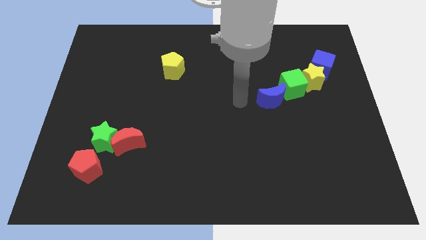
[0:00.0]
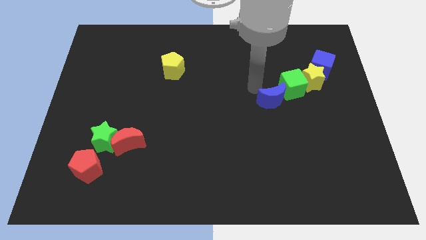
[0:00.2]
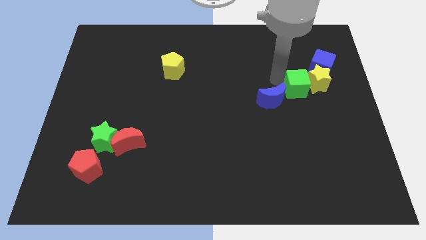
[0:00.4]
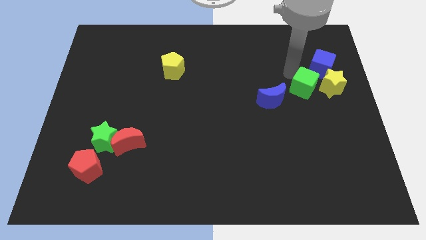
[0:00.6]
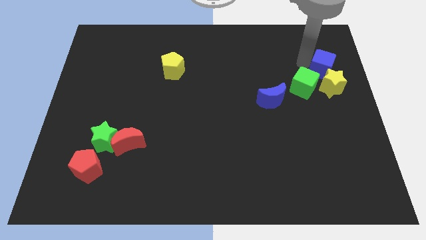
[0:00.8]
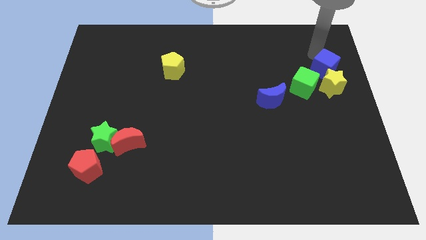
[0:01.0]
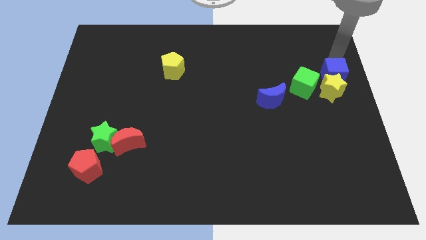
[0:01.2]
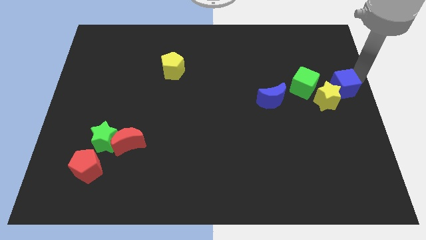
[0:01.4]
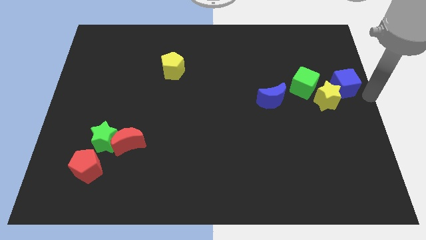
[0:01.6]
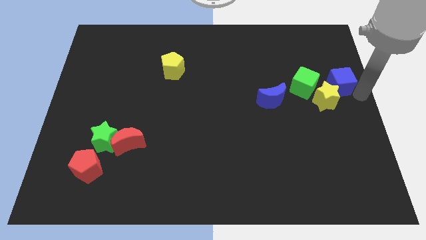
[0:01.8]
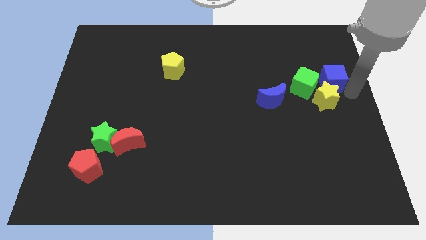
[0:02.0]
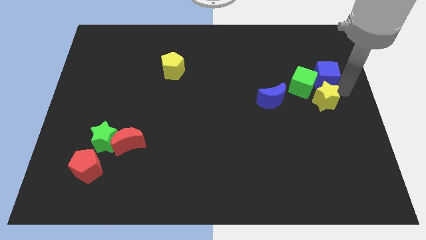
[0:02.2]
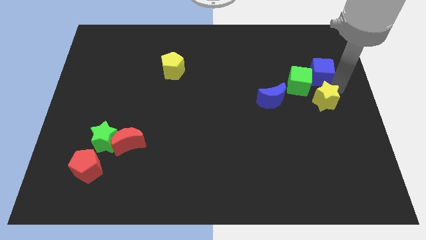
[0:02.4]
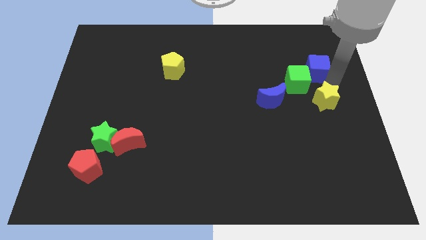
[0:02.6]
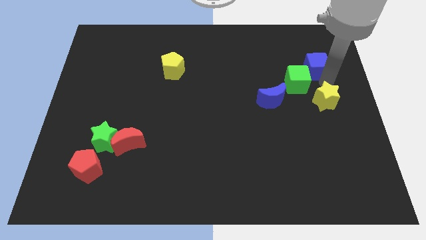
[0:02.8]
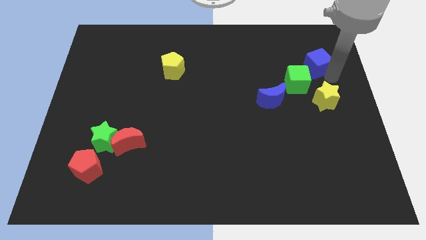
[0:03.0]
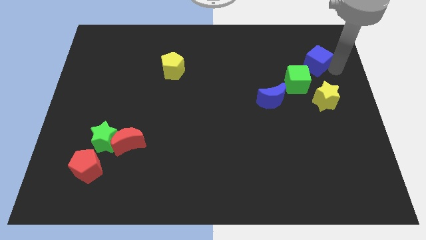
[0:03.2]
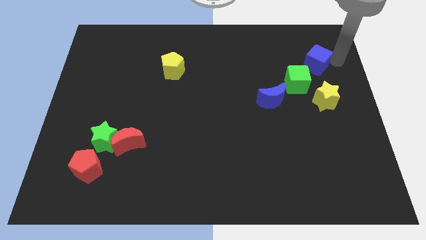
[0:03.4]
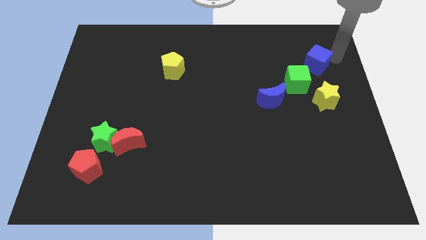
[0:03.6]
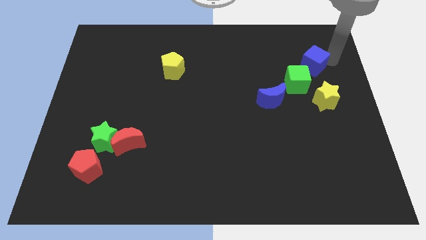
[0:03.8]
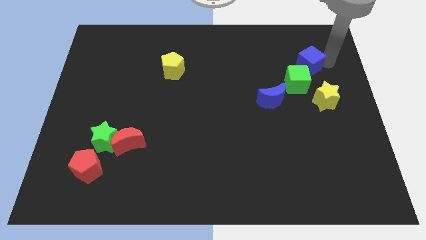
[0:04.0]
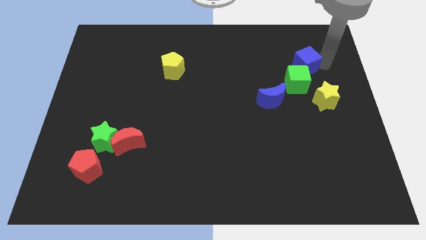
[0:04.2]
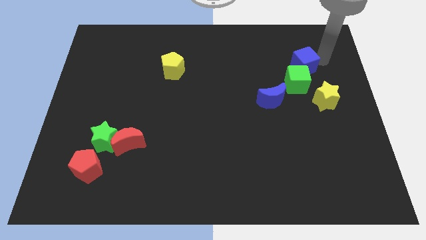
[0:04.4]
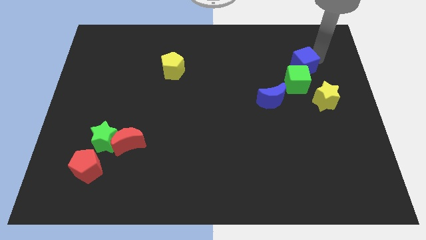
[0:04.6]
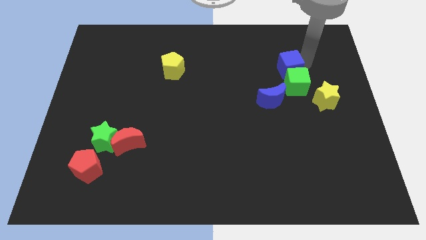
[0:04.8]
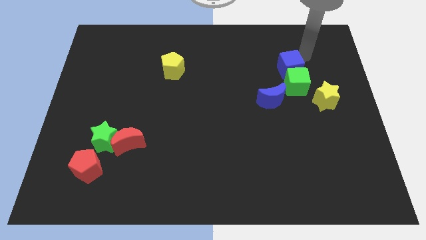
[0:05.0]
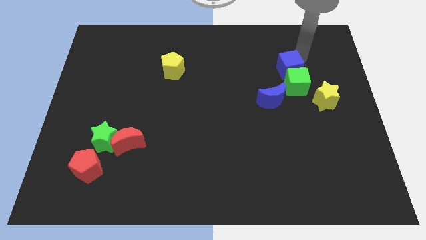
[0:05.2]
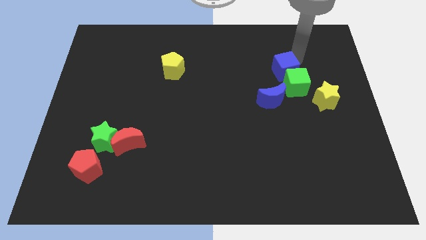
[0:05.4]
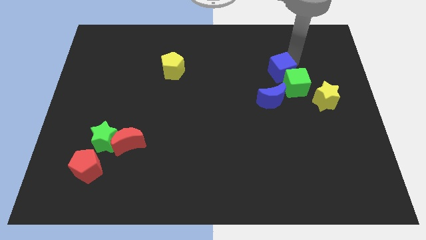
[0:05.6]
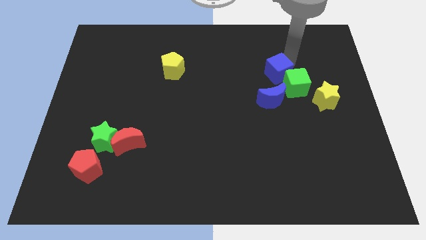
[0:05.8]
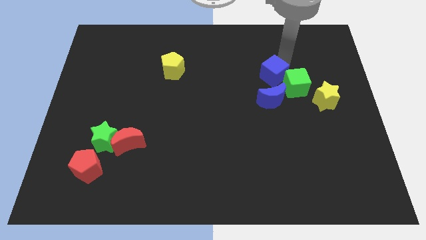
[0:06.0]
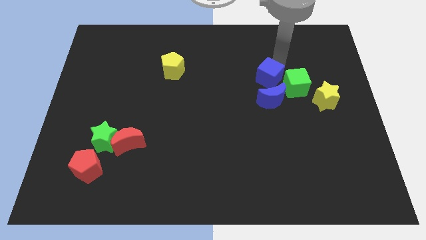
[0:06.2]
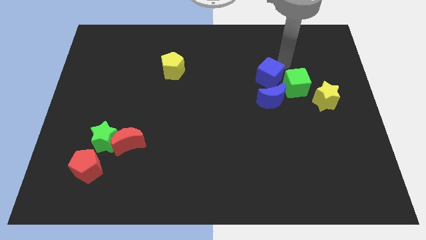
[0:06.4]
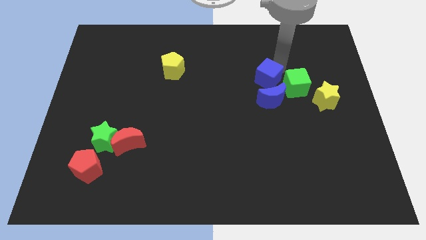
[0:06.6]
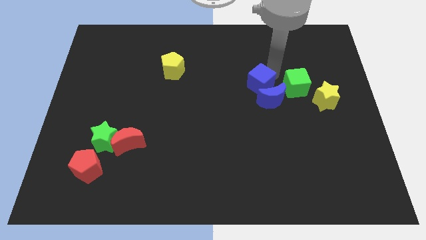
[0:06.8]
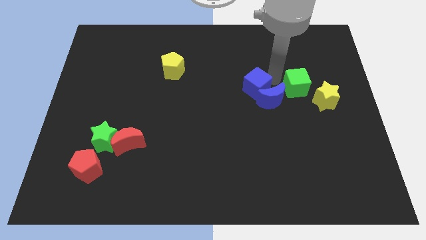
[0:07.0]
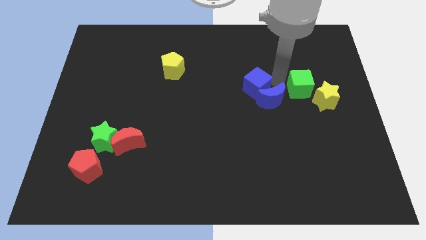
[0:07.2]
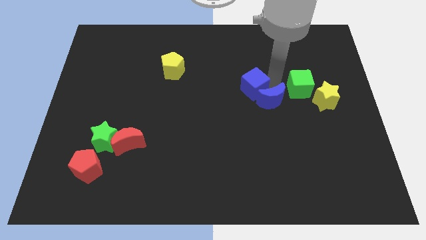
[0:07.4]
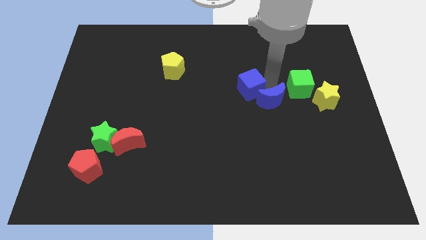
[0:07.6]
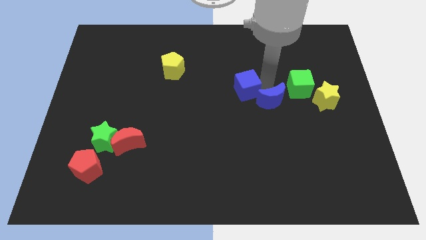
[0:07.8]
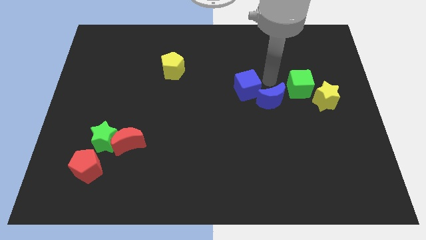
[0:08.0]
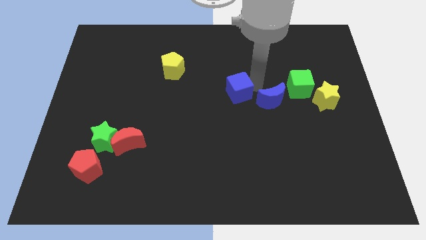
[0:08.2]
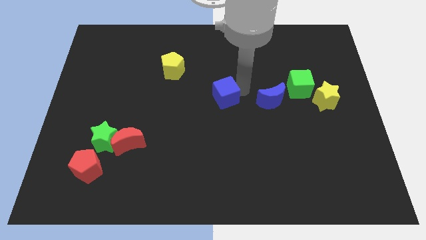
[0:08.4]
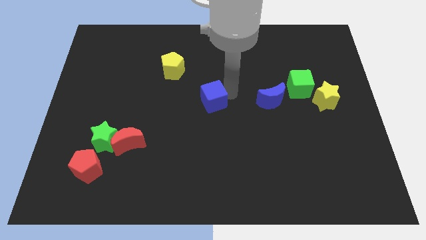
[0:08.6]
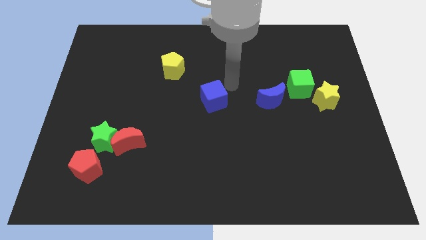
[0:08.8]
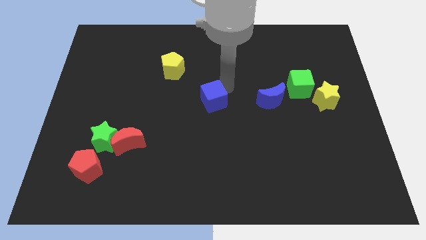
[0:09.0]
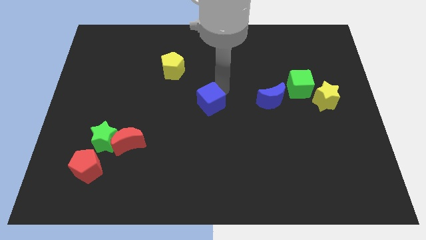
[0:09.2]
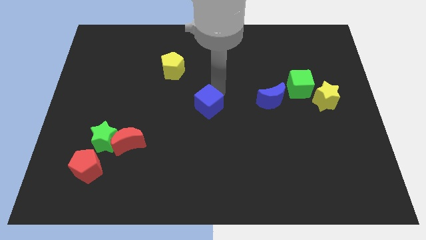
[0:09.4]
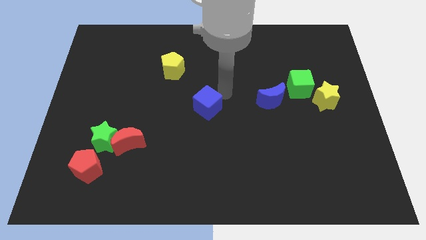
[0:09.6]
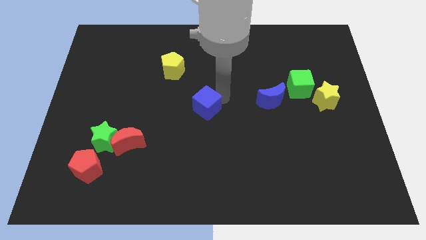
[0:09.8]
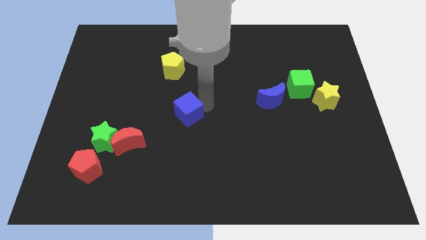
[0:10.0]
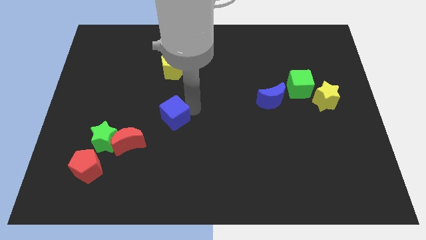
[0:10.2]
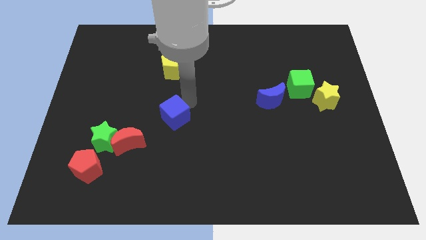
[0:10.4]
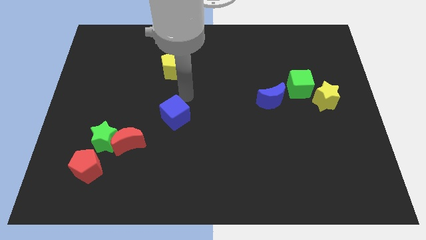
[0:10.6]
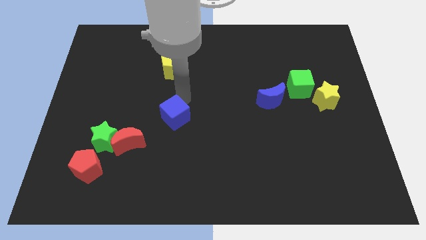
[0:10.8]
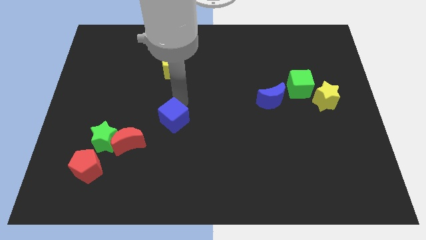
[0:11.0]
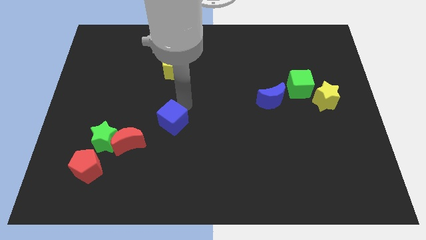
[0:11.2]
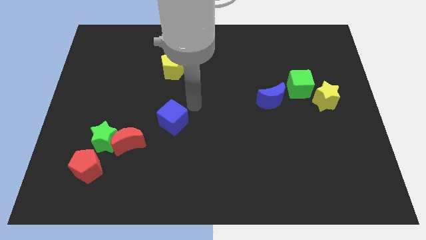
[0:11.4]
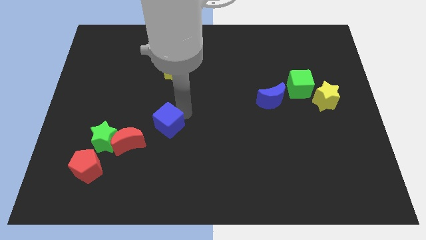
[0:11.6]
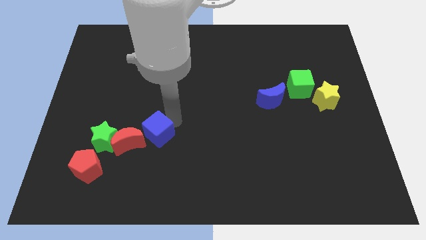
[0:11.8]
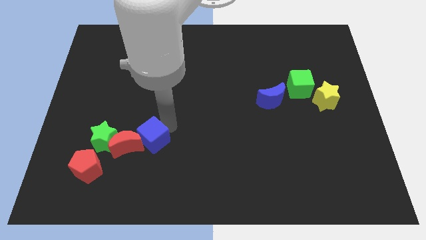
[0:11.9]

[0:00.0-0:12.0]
slide the blue cube to the red moon

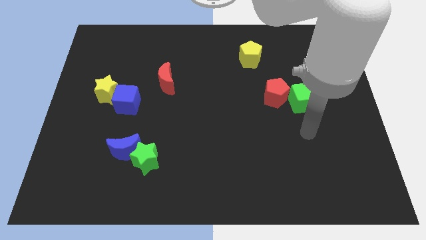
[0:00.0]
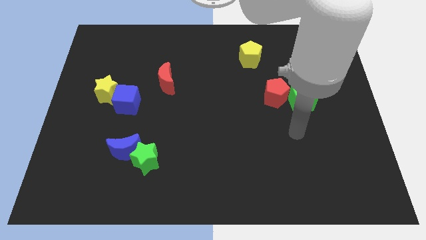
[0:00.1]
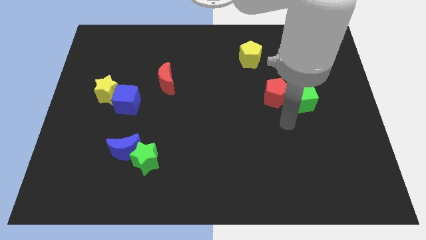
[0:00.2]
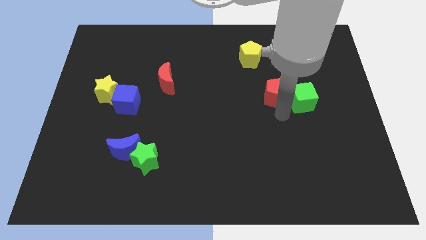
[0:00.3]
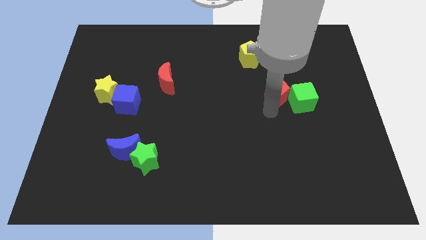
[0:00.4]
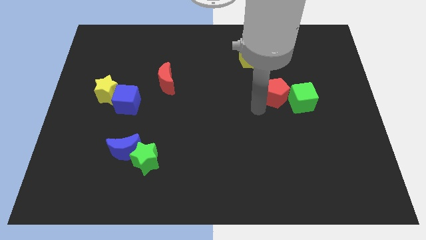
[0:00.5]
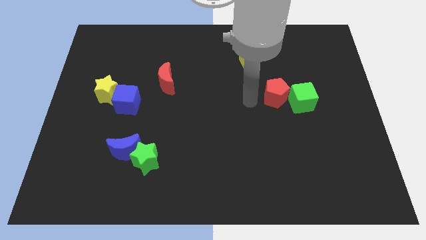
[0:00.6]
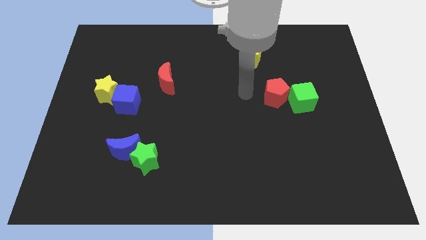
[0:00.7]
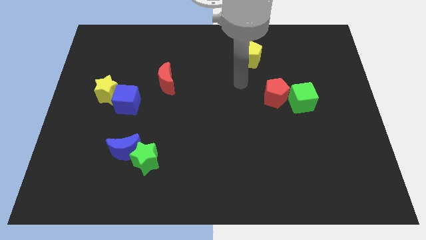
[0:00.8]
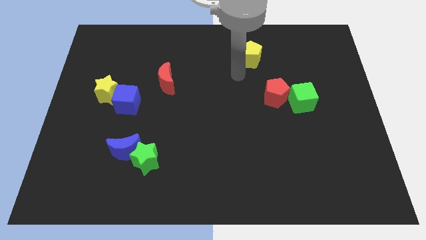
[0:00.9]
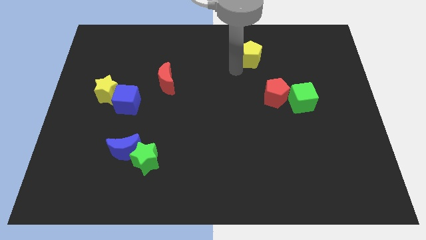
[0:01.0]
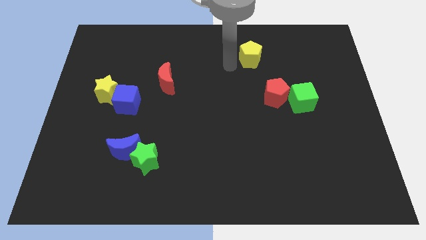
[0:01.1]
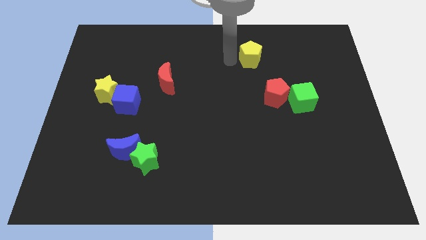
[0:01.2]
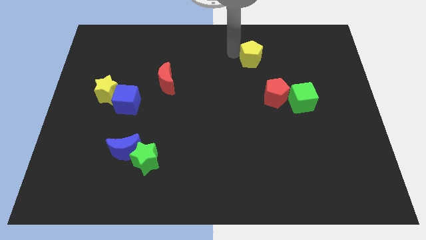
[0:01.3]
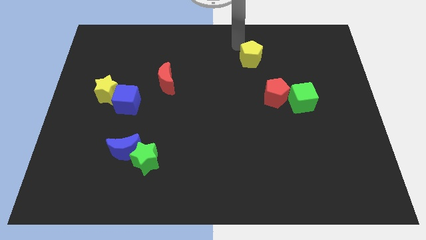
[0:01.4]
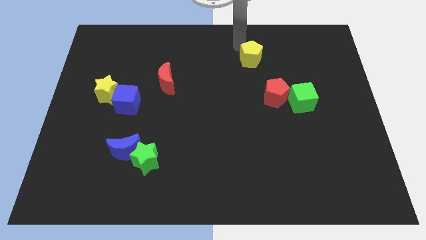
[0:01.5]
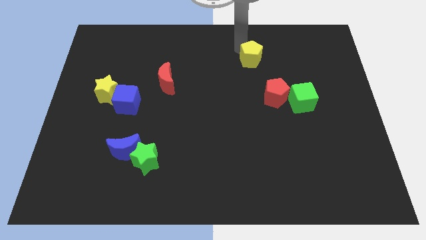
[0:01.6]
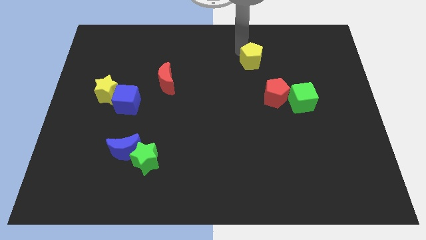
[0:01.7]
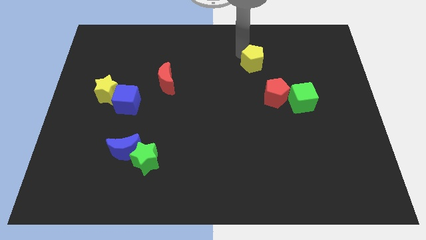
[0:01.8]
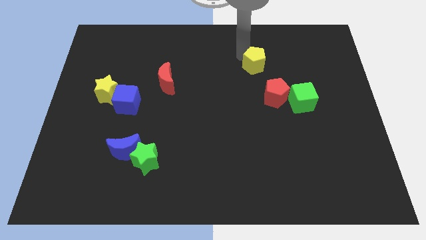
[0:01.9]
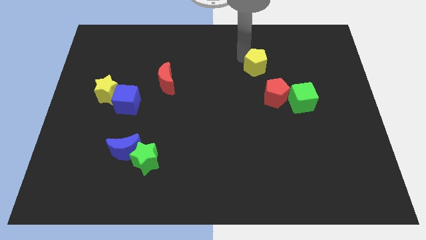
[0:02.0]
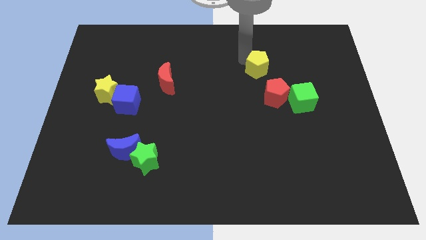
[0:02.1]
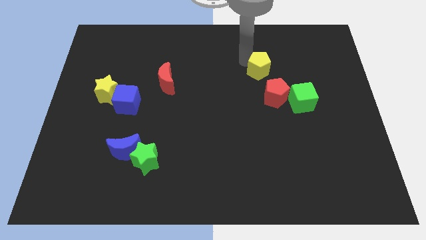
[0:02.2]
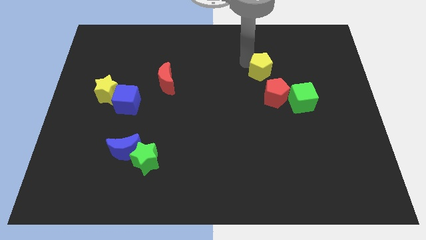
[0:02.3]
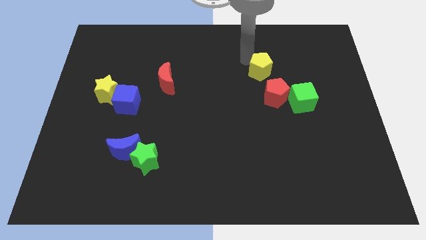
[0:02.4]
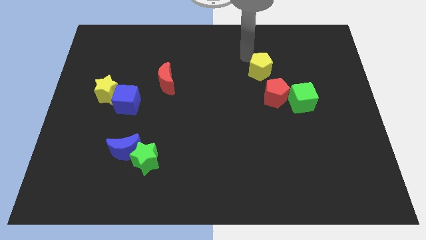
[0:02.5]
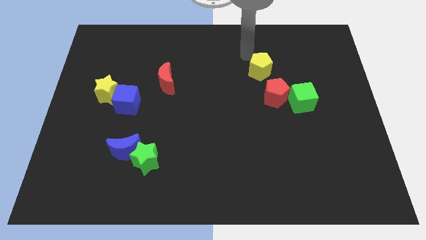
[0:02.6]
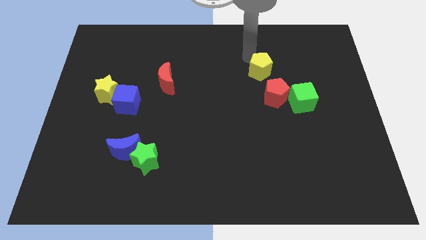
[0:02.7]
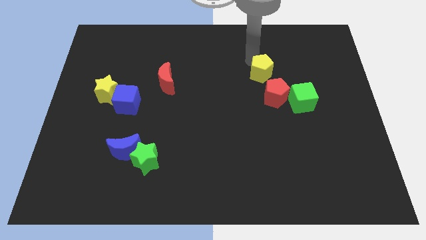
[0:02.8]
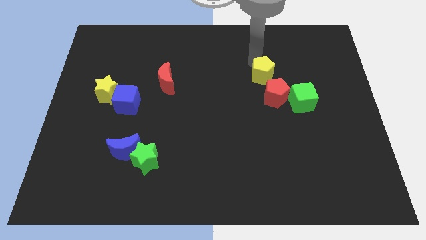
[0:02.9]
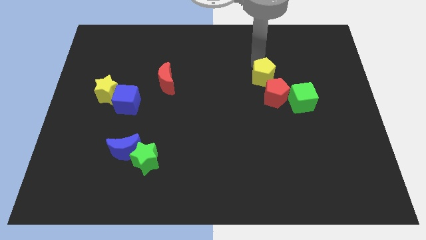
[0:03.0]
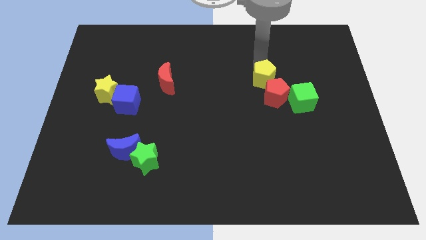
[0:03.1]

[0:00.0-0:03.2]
move the yellow pentagon towards the red pentagon
